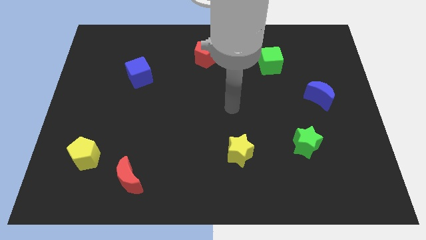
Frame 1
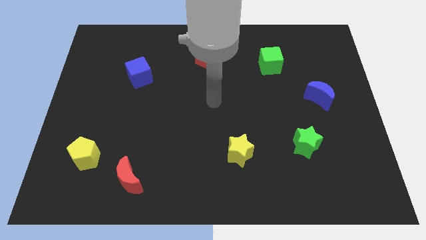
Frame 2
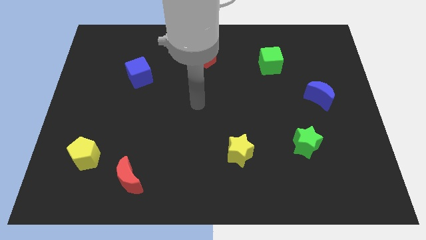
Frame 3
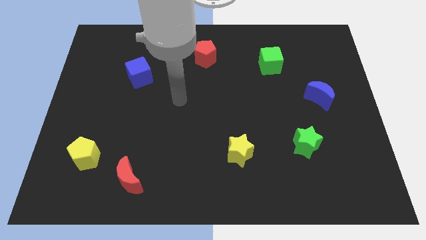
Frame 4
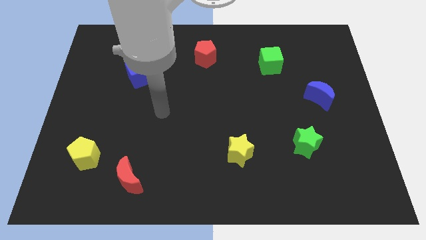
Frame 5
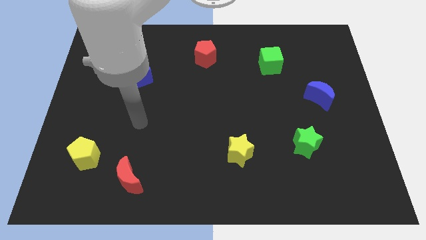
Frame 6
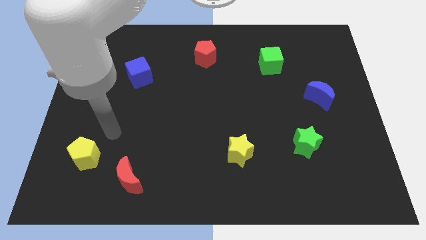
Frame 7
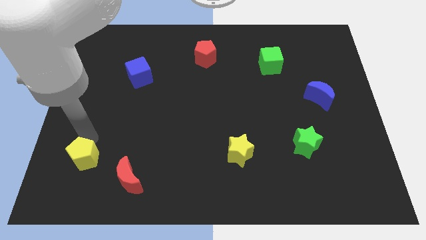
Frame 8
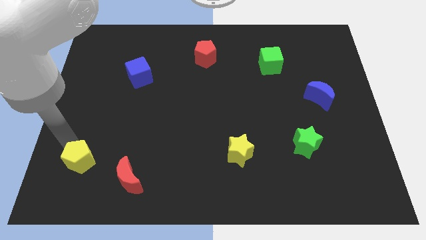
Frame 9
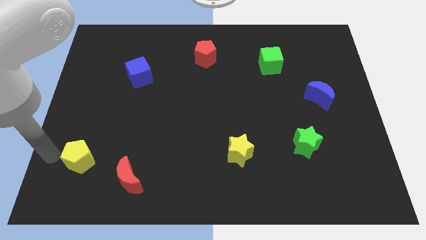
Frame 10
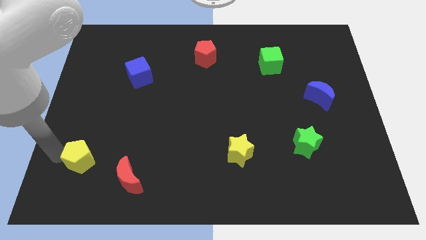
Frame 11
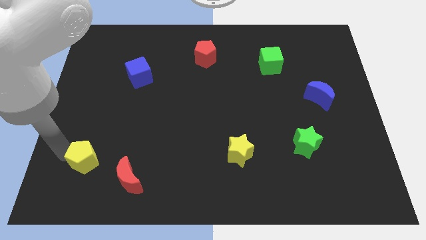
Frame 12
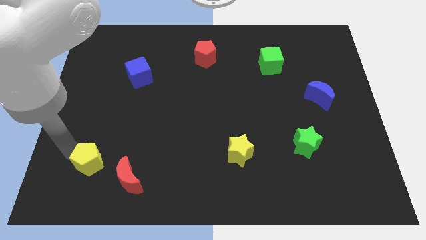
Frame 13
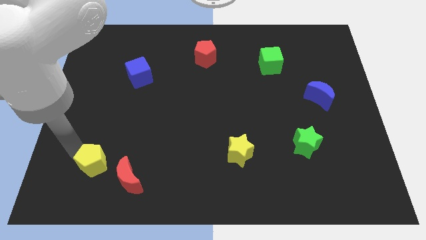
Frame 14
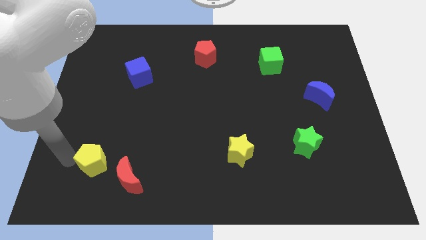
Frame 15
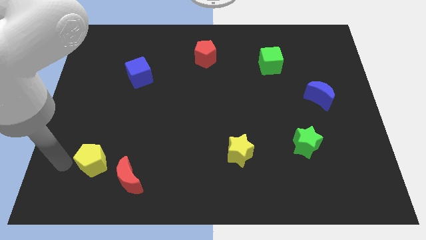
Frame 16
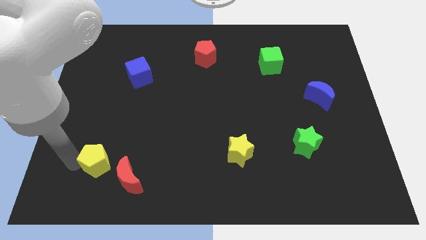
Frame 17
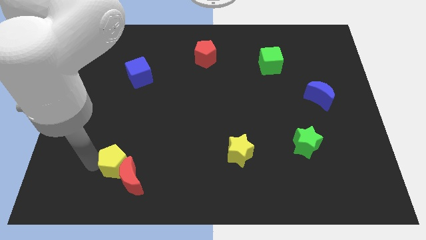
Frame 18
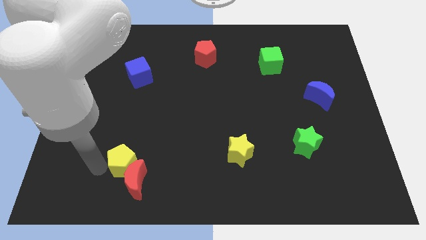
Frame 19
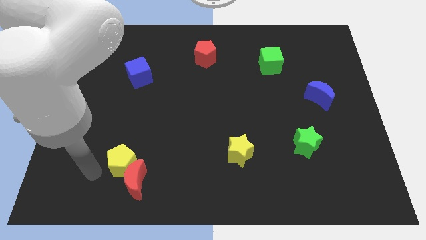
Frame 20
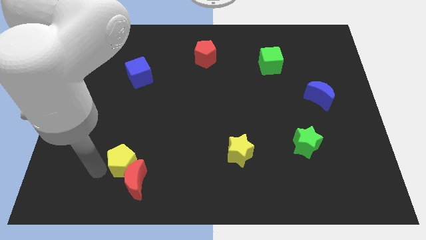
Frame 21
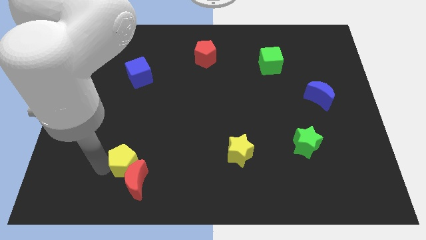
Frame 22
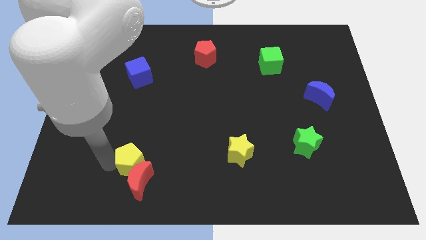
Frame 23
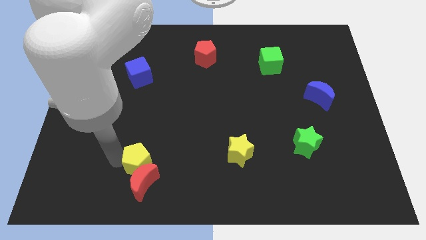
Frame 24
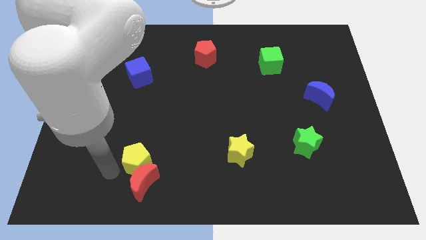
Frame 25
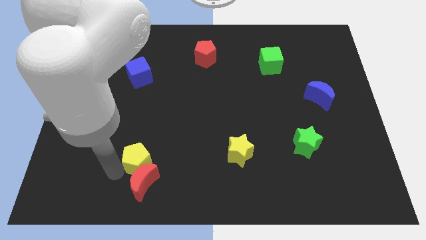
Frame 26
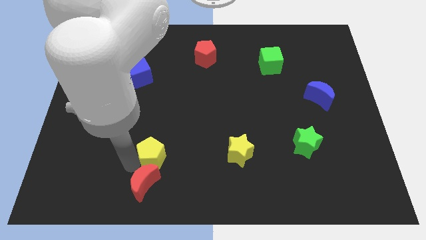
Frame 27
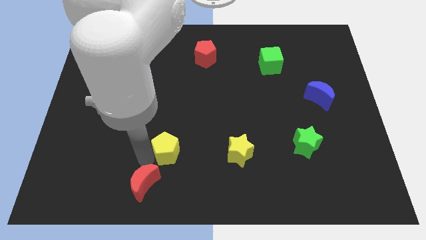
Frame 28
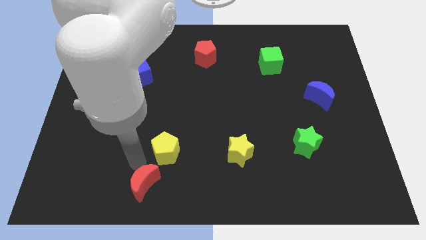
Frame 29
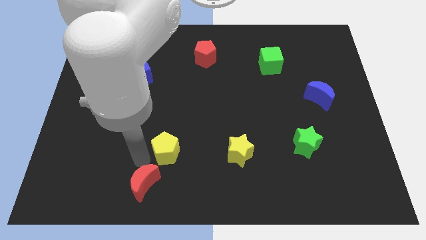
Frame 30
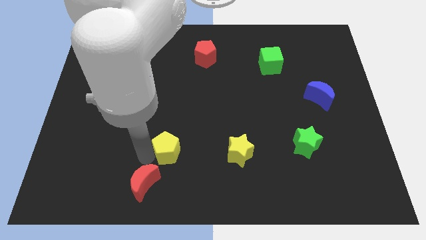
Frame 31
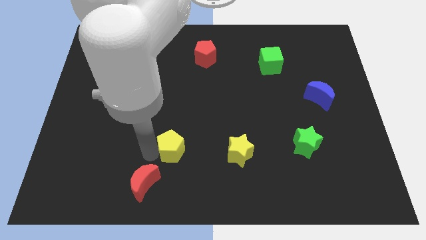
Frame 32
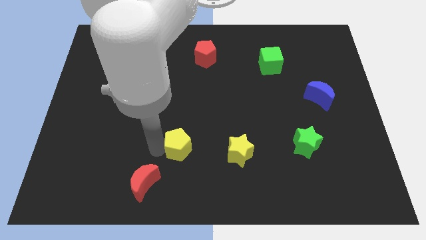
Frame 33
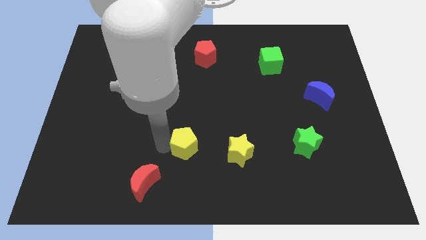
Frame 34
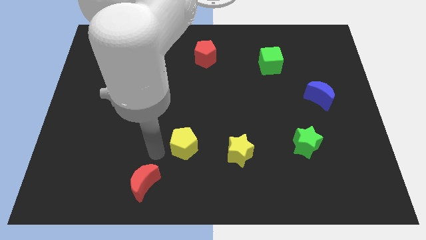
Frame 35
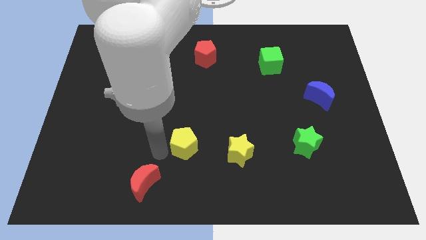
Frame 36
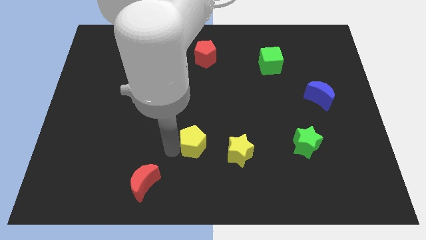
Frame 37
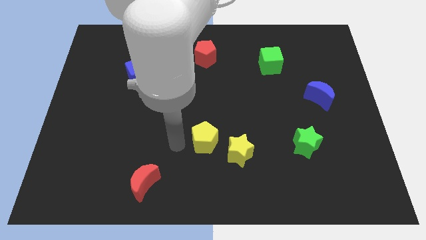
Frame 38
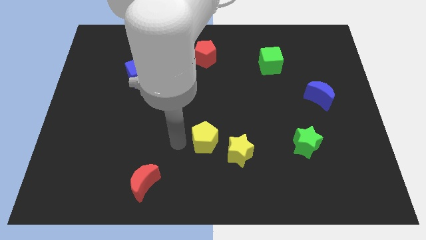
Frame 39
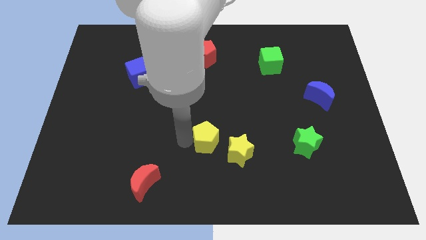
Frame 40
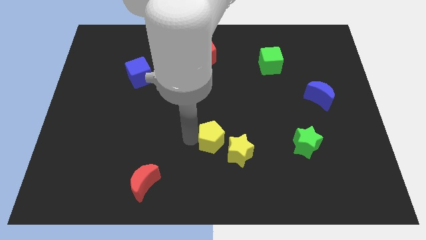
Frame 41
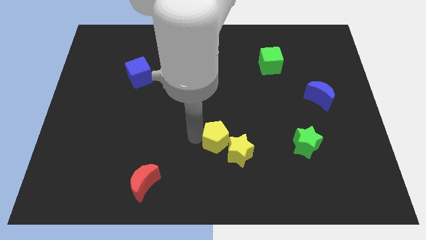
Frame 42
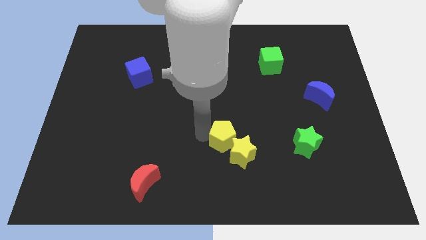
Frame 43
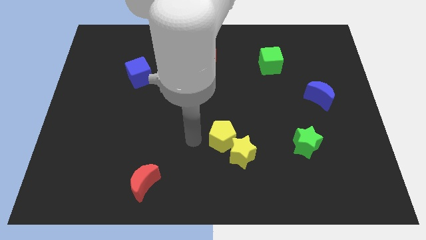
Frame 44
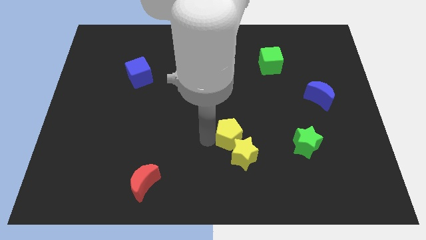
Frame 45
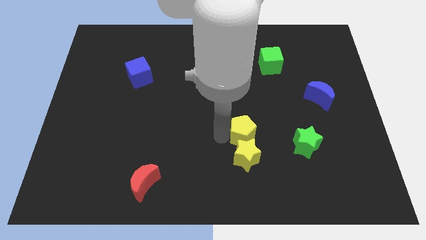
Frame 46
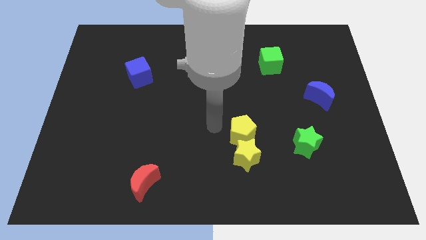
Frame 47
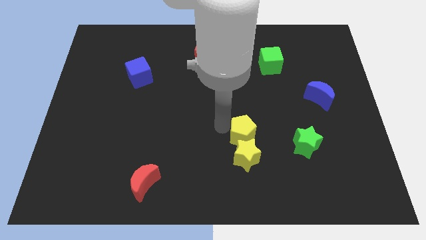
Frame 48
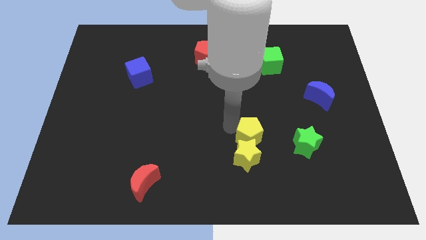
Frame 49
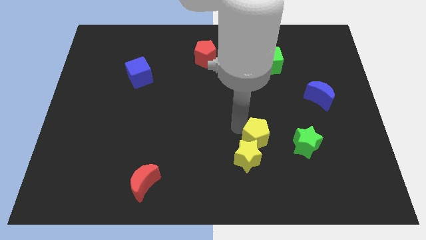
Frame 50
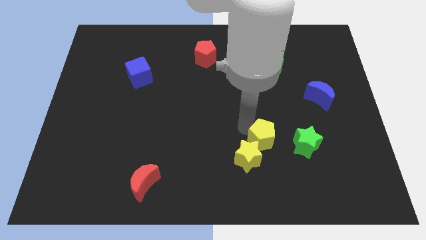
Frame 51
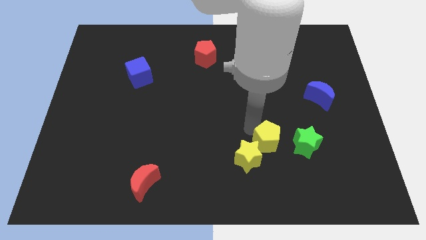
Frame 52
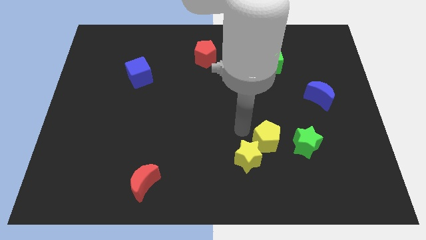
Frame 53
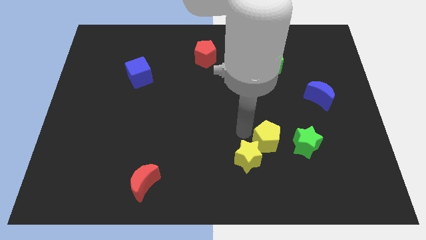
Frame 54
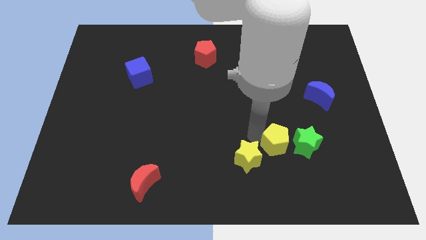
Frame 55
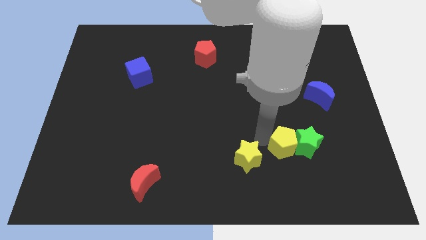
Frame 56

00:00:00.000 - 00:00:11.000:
put the yellow pentagon towards the green star

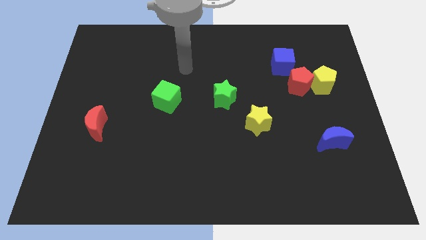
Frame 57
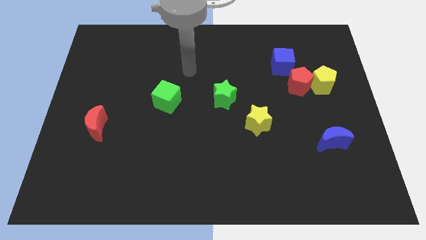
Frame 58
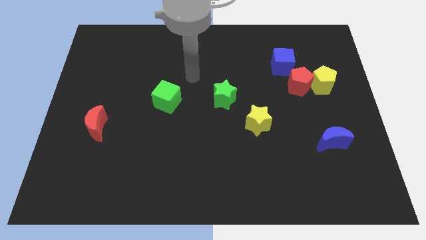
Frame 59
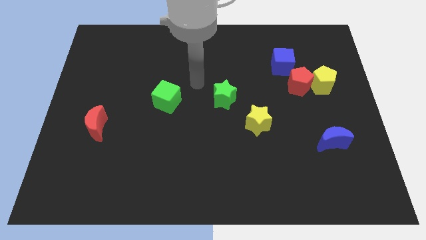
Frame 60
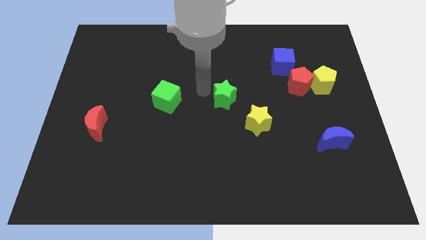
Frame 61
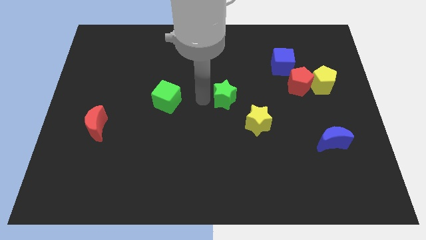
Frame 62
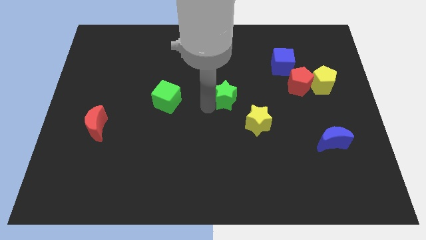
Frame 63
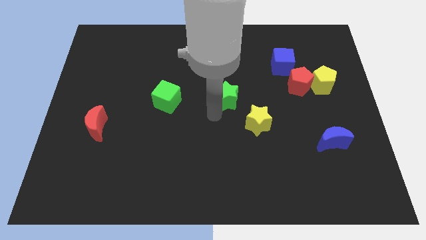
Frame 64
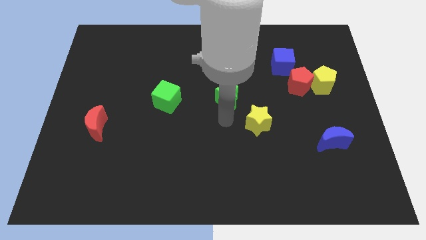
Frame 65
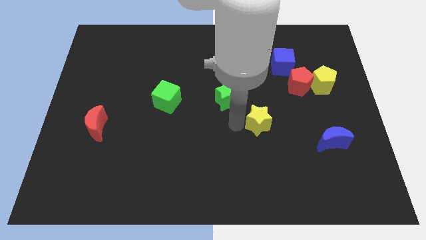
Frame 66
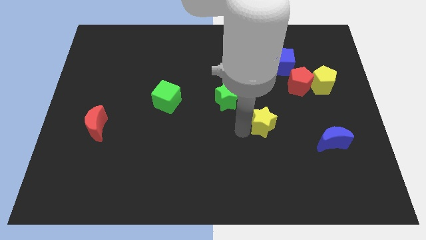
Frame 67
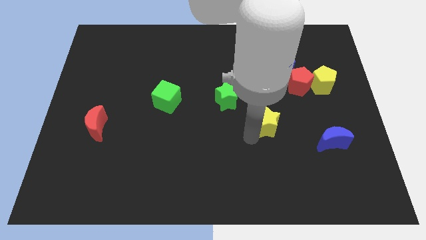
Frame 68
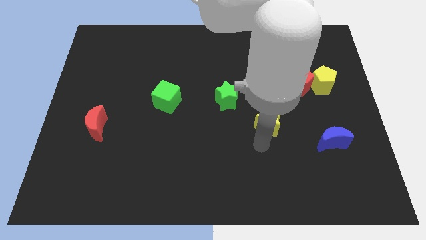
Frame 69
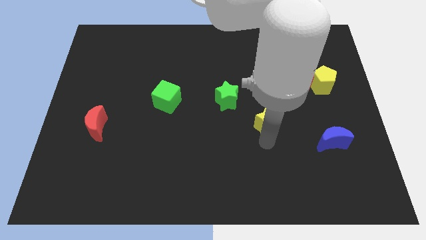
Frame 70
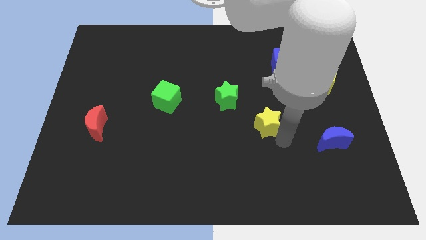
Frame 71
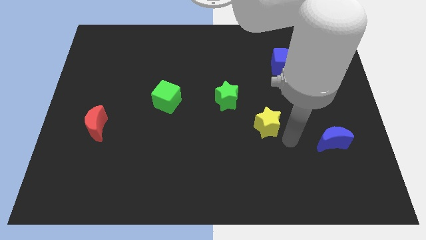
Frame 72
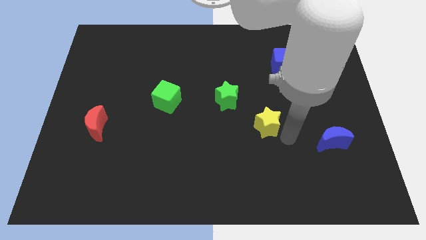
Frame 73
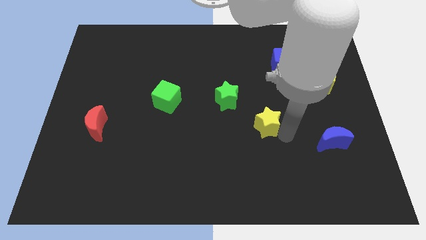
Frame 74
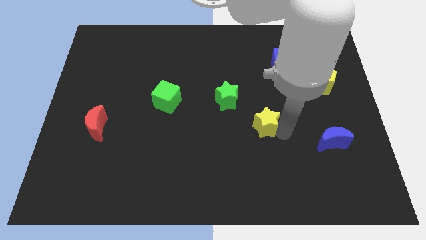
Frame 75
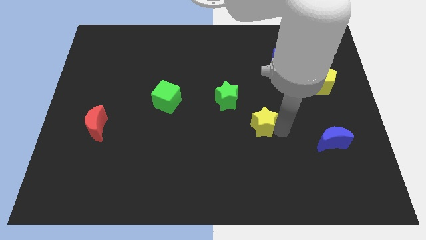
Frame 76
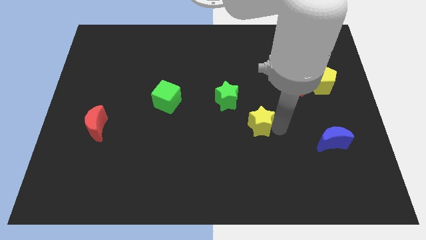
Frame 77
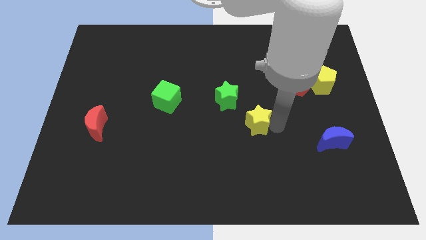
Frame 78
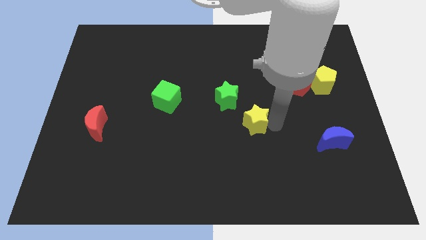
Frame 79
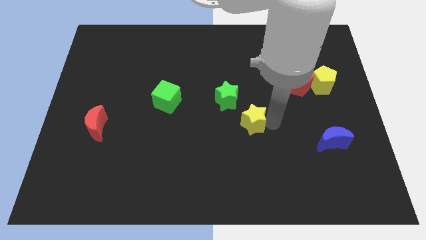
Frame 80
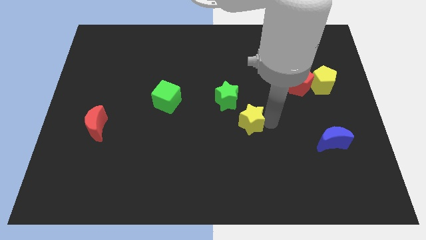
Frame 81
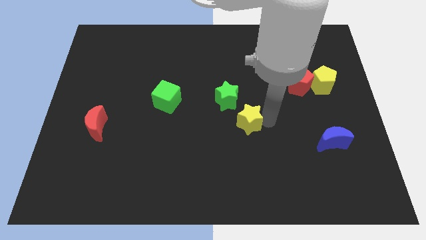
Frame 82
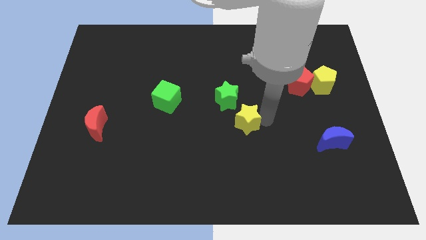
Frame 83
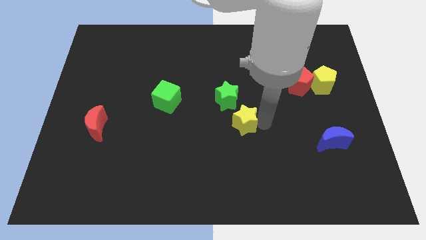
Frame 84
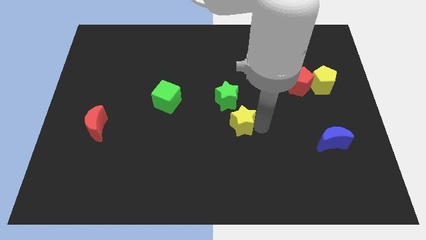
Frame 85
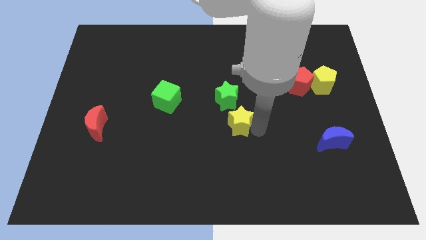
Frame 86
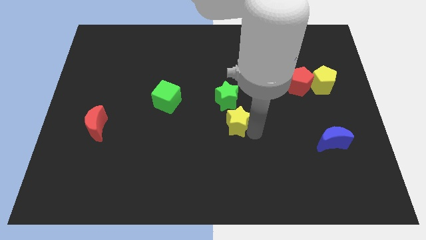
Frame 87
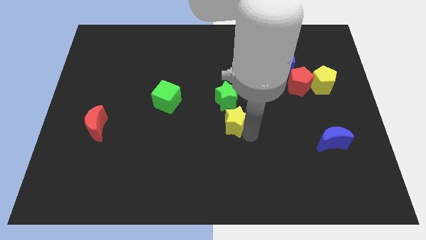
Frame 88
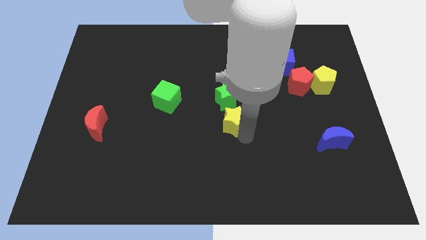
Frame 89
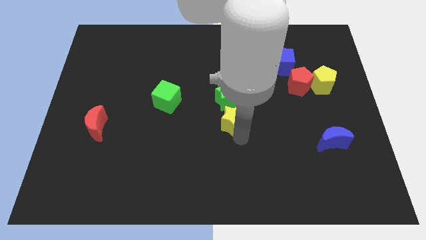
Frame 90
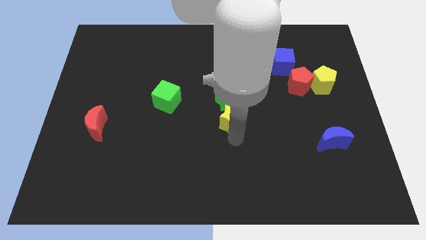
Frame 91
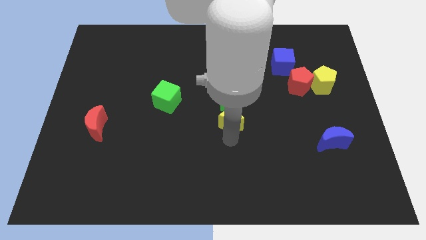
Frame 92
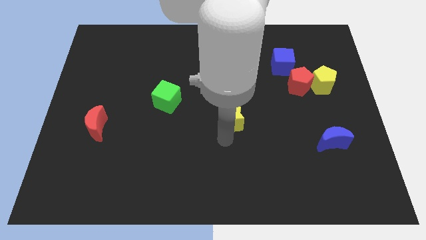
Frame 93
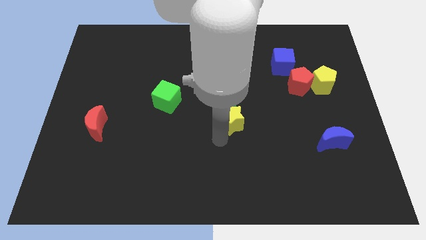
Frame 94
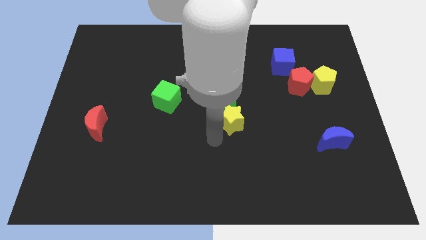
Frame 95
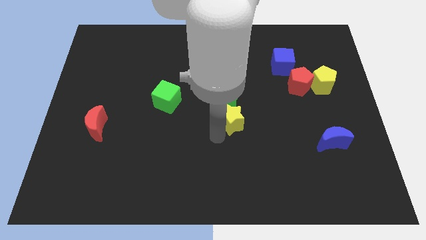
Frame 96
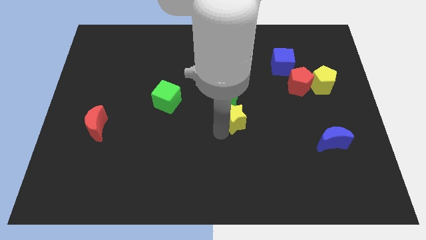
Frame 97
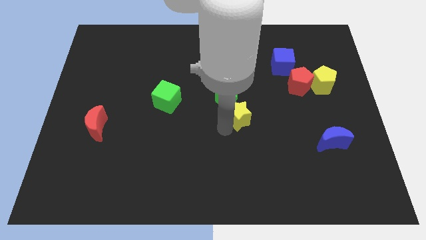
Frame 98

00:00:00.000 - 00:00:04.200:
put the yellow star to the green star
